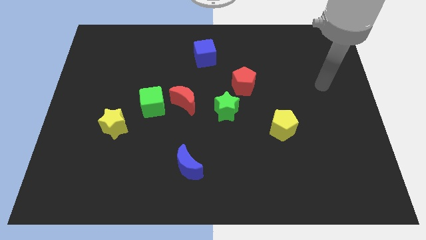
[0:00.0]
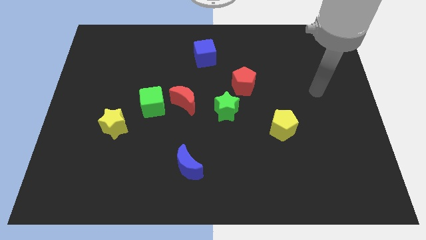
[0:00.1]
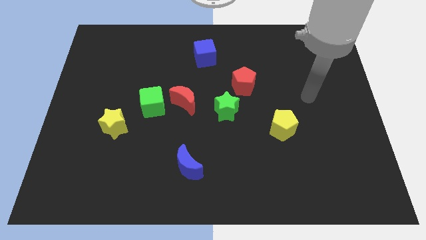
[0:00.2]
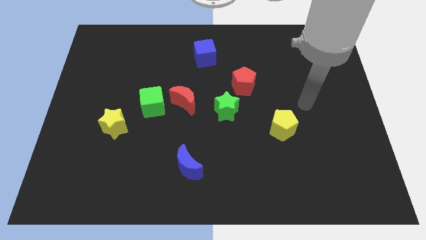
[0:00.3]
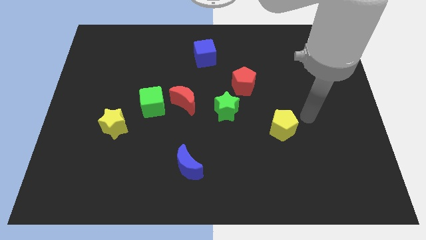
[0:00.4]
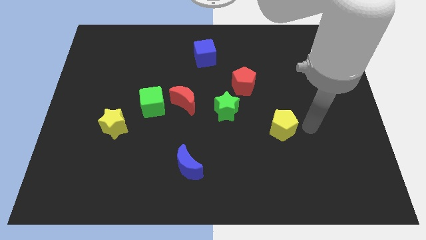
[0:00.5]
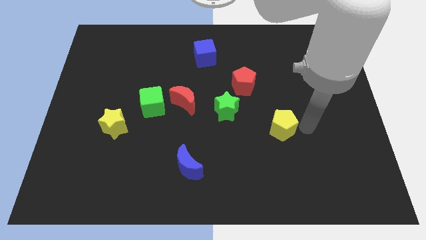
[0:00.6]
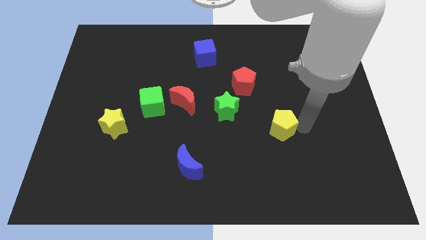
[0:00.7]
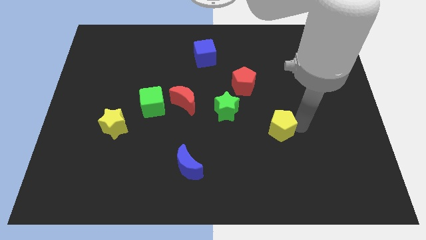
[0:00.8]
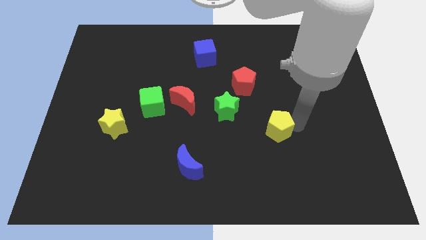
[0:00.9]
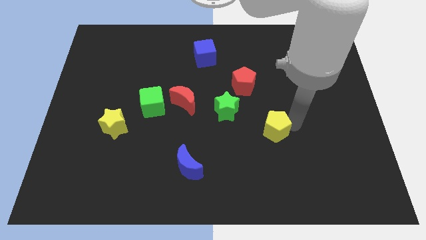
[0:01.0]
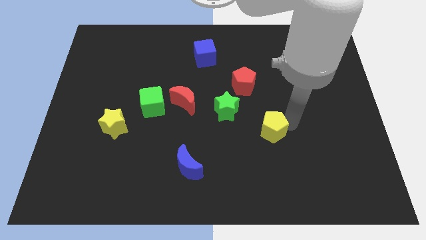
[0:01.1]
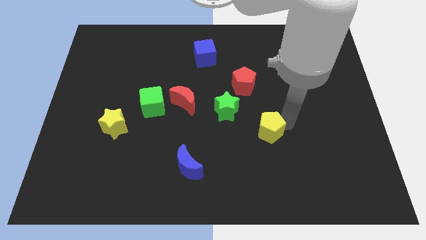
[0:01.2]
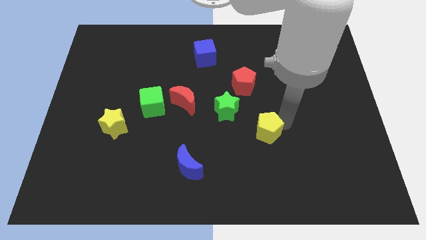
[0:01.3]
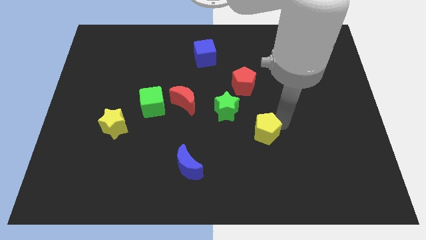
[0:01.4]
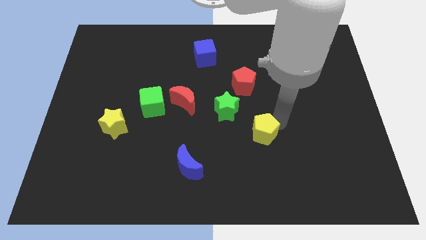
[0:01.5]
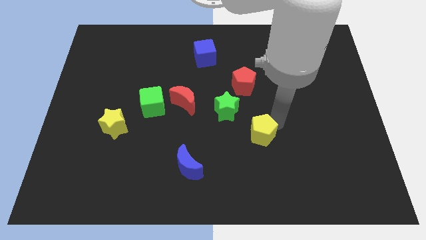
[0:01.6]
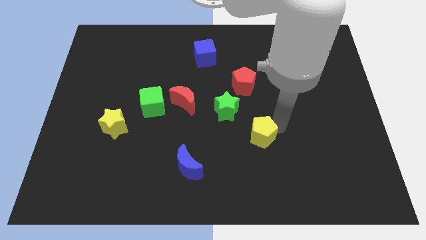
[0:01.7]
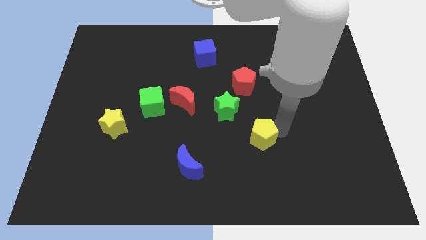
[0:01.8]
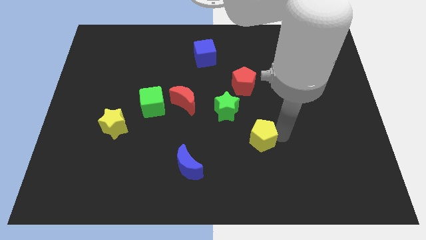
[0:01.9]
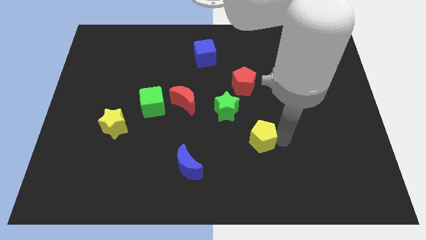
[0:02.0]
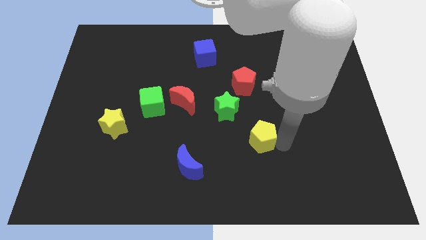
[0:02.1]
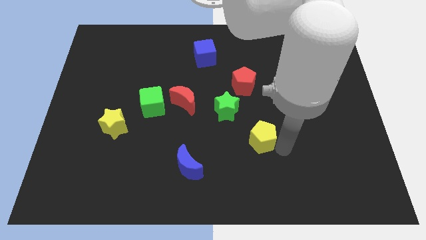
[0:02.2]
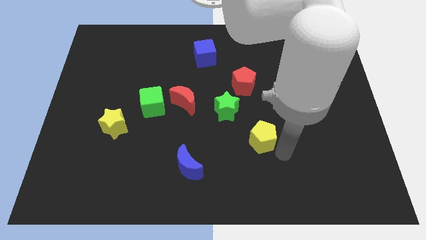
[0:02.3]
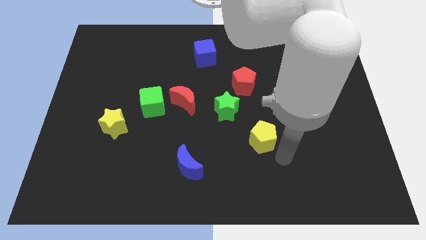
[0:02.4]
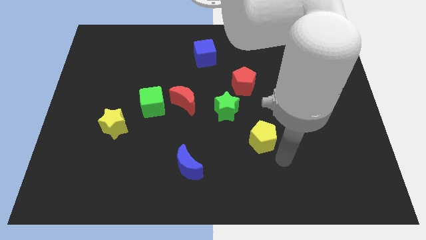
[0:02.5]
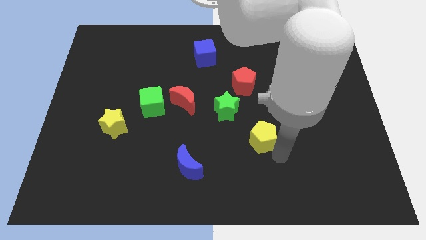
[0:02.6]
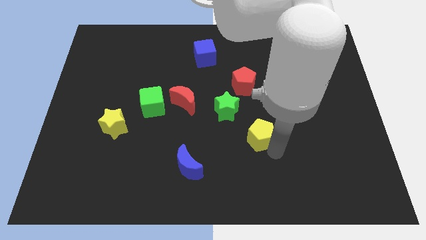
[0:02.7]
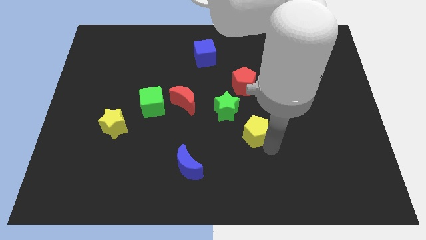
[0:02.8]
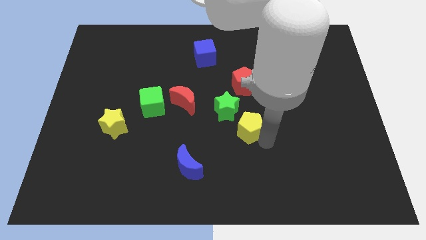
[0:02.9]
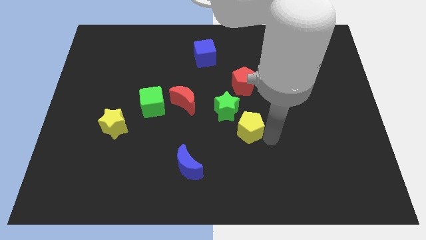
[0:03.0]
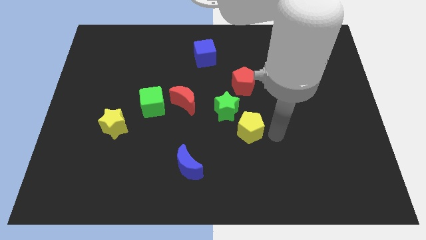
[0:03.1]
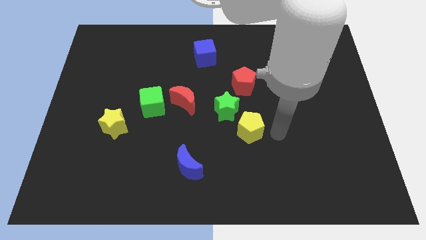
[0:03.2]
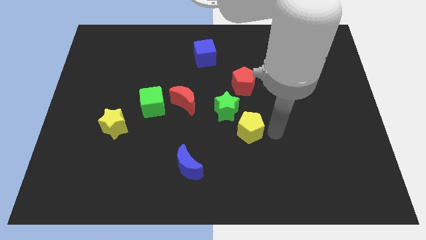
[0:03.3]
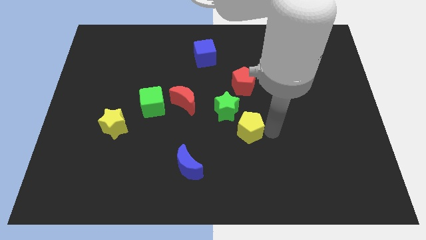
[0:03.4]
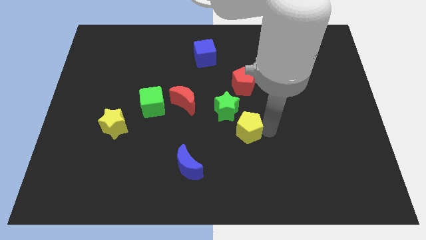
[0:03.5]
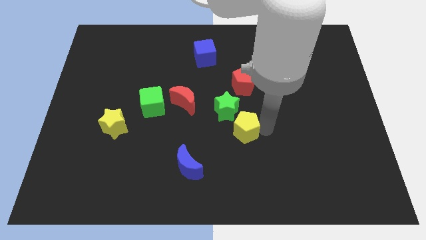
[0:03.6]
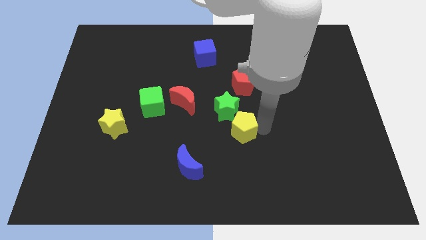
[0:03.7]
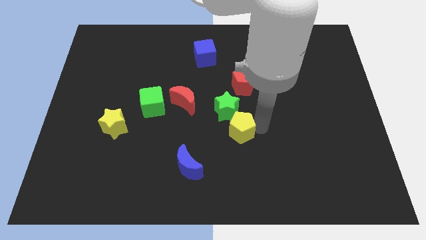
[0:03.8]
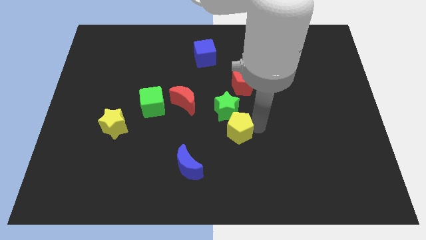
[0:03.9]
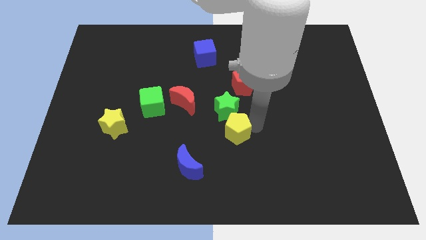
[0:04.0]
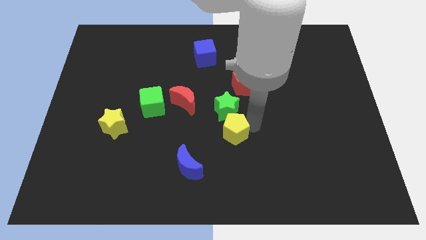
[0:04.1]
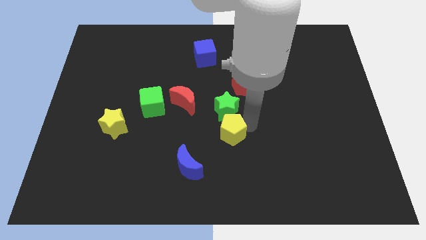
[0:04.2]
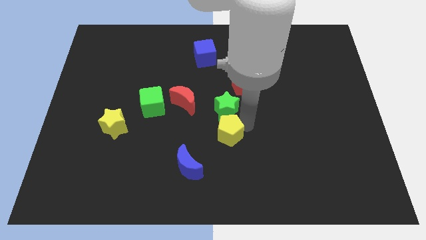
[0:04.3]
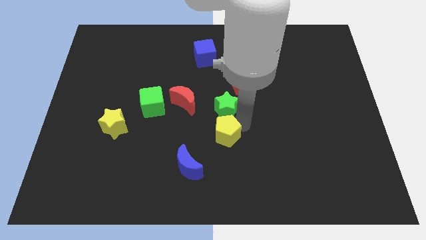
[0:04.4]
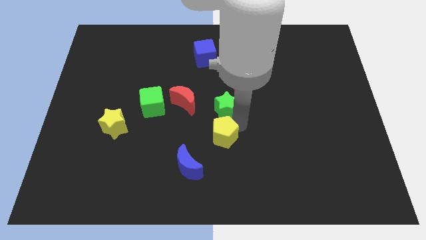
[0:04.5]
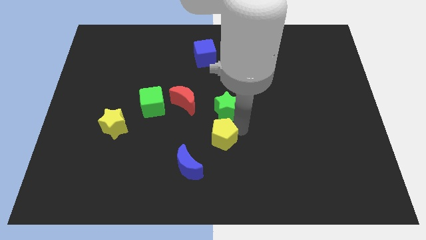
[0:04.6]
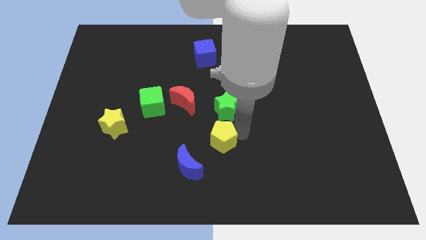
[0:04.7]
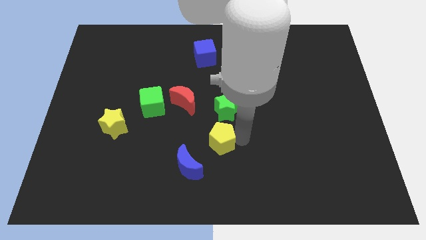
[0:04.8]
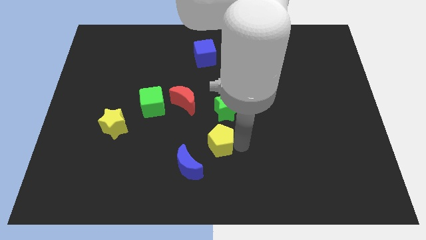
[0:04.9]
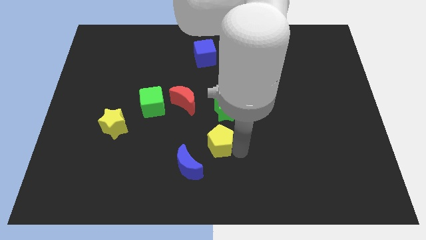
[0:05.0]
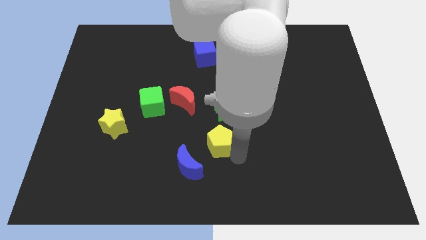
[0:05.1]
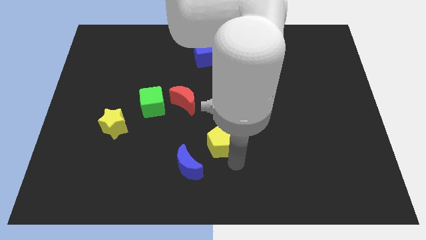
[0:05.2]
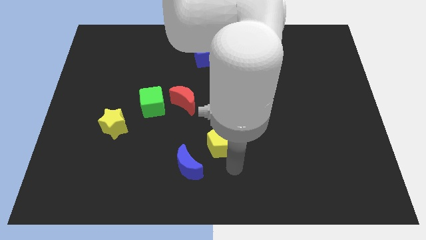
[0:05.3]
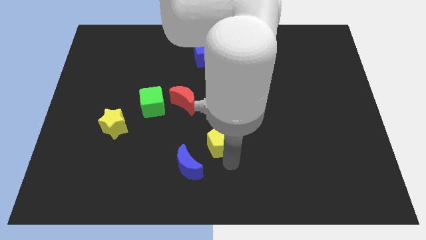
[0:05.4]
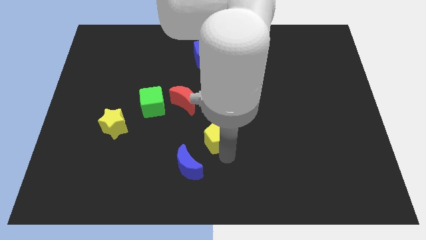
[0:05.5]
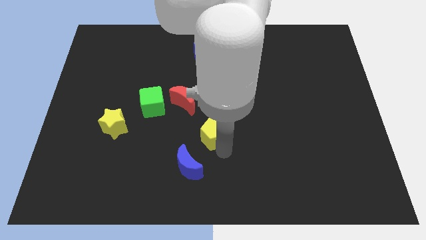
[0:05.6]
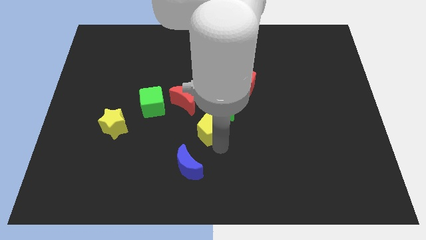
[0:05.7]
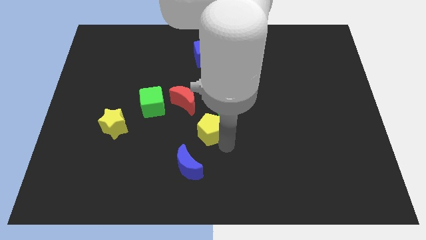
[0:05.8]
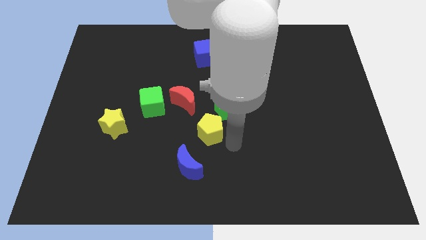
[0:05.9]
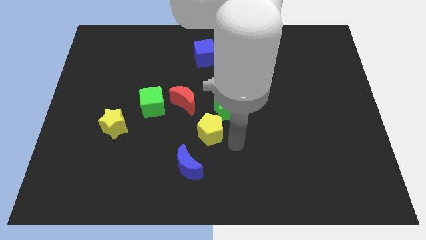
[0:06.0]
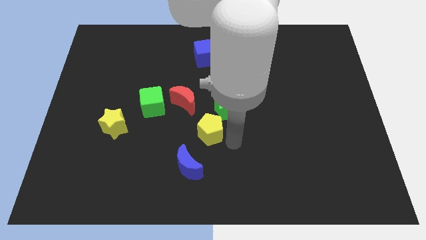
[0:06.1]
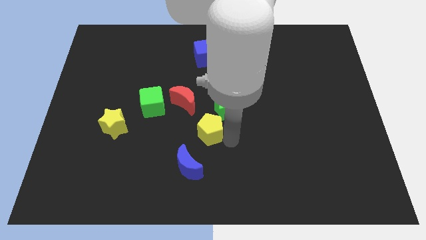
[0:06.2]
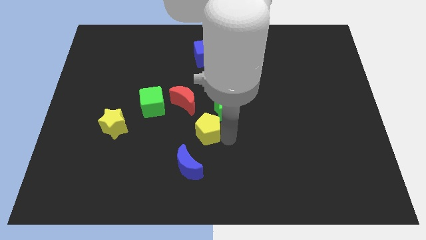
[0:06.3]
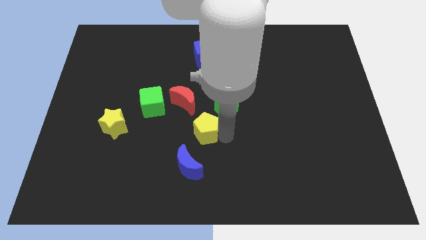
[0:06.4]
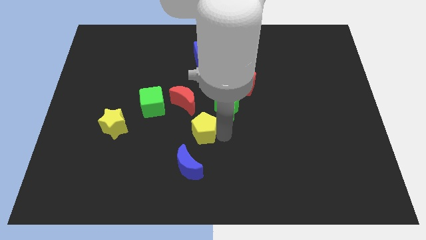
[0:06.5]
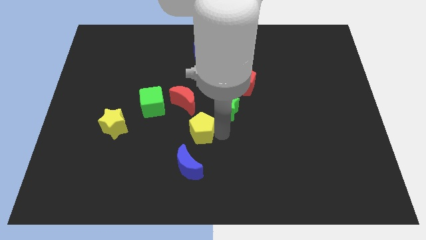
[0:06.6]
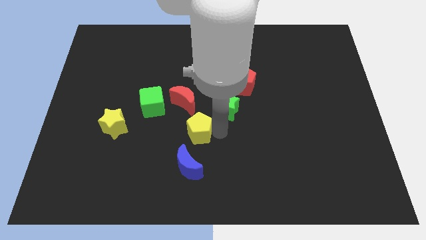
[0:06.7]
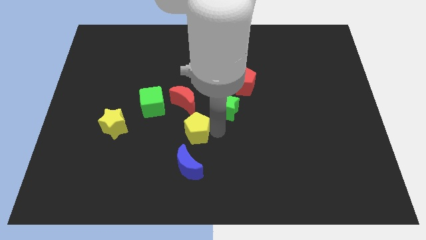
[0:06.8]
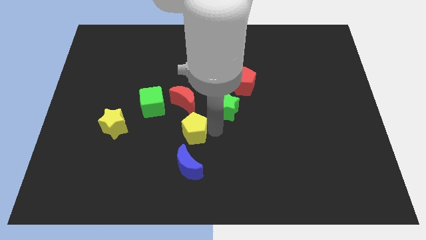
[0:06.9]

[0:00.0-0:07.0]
put the yellow pentagon to the bottom right side of the green cube
